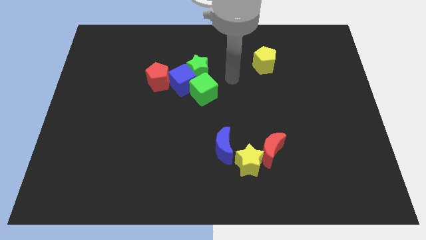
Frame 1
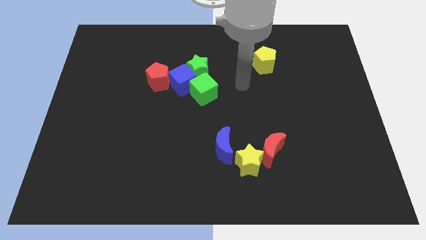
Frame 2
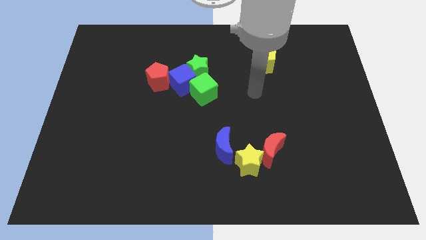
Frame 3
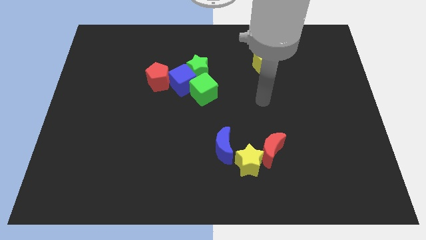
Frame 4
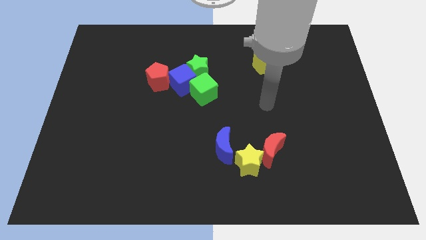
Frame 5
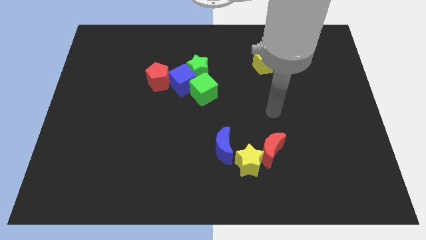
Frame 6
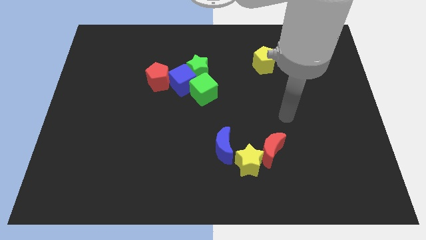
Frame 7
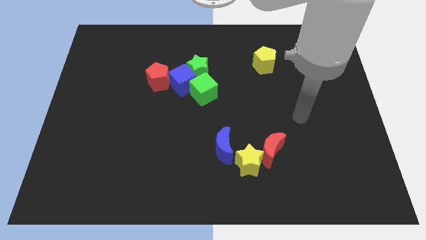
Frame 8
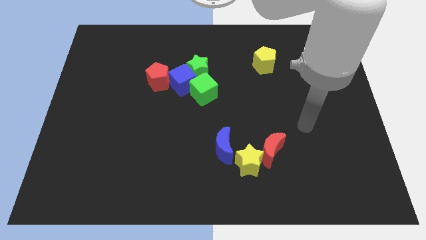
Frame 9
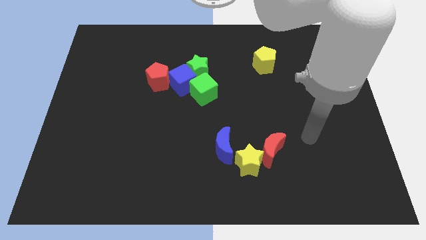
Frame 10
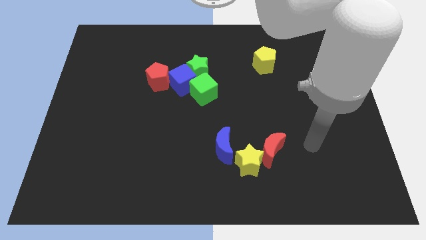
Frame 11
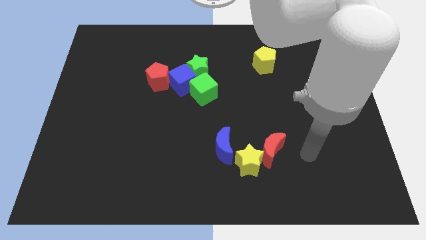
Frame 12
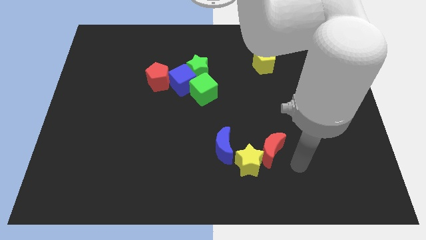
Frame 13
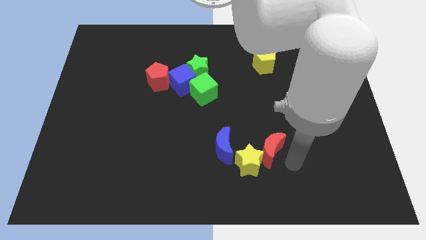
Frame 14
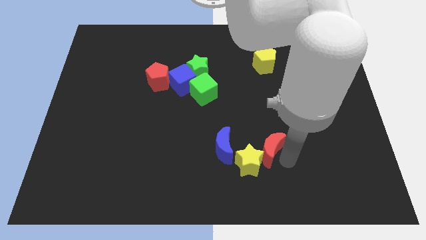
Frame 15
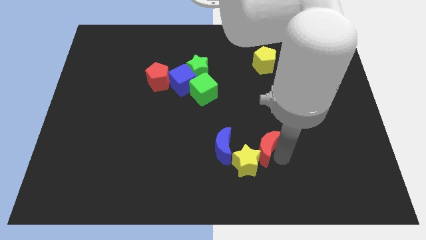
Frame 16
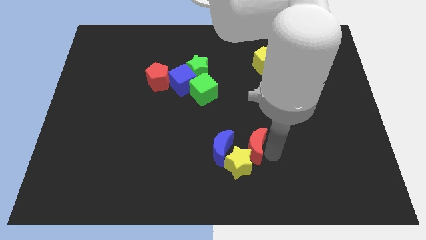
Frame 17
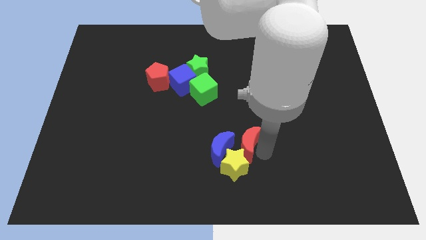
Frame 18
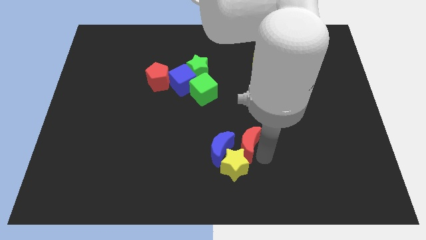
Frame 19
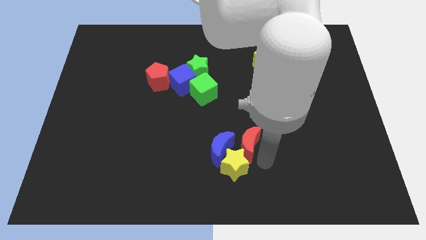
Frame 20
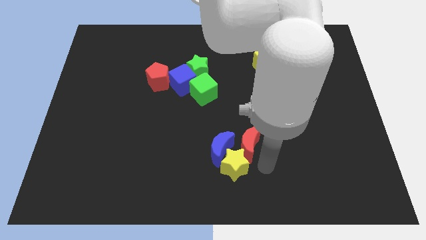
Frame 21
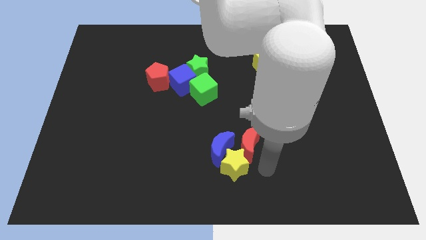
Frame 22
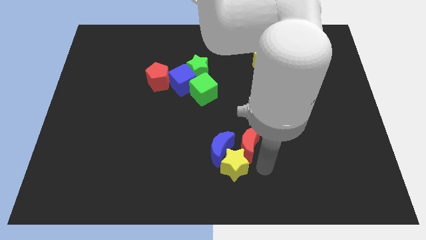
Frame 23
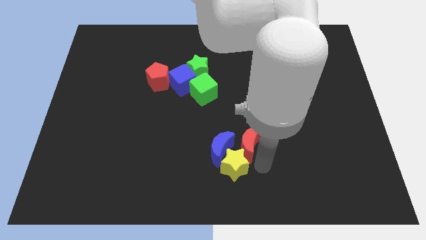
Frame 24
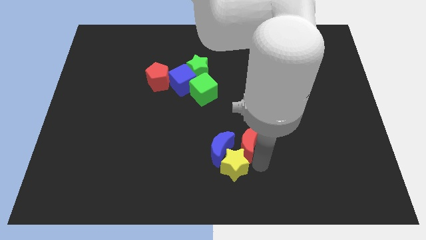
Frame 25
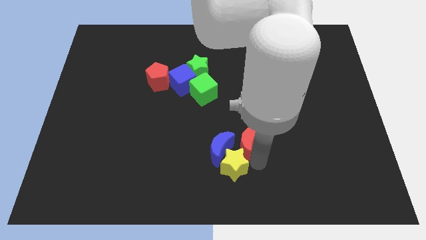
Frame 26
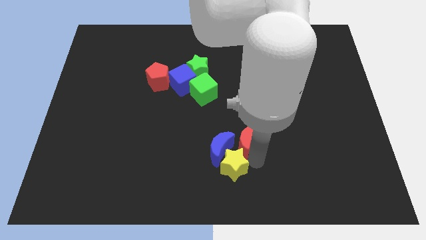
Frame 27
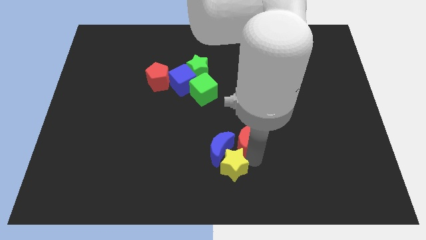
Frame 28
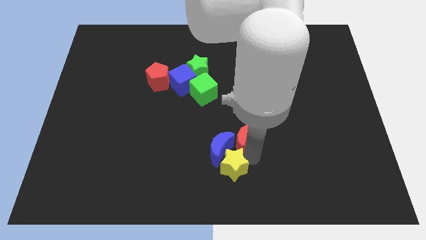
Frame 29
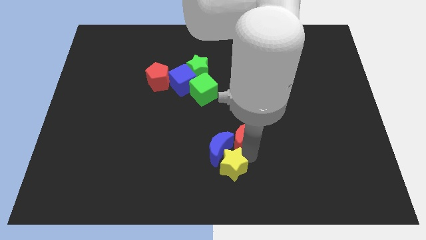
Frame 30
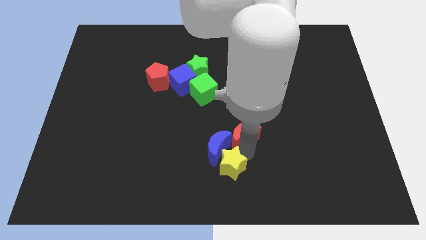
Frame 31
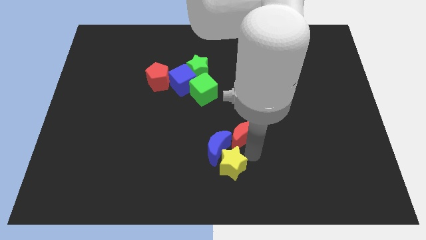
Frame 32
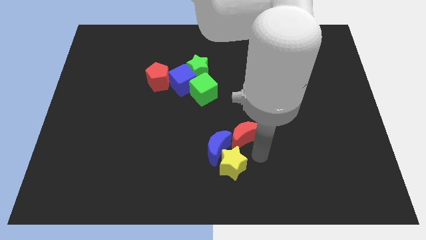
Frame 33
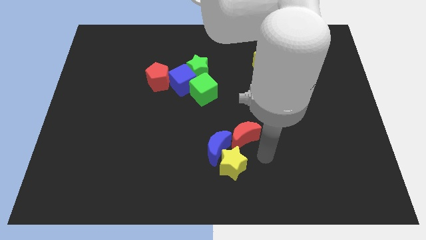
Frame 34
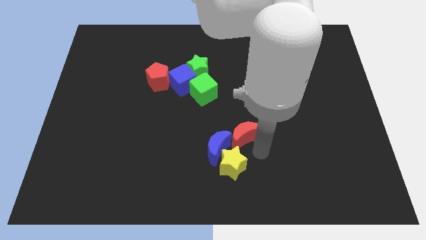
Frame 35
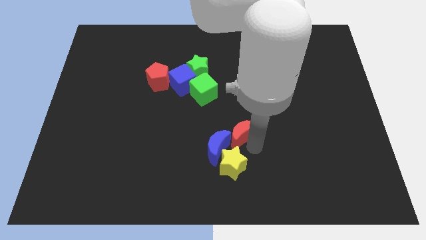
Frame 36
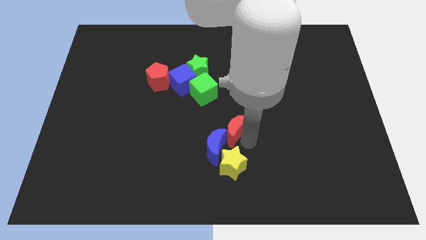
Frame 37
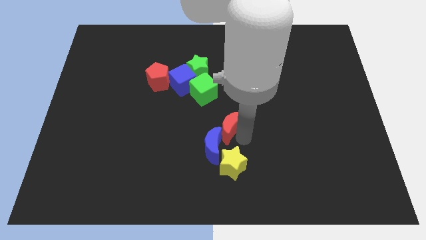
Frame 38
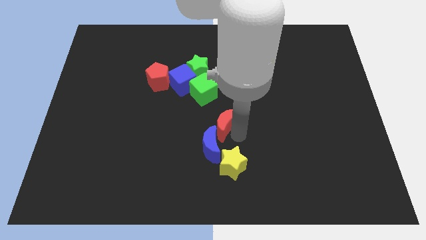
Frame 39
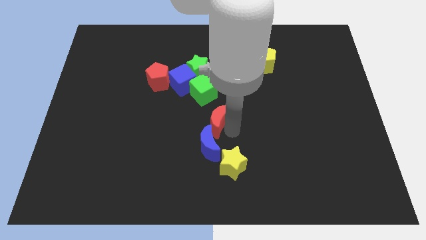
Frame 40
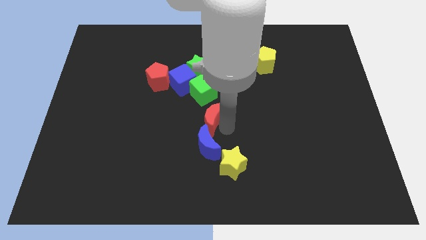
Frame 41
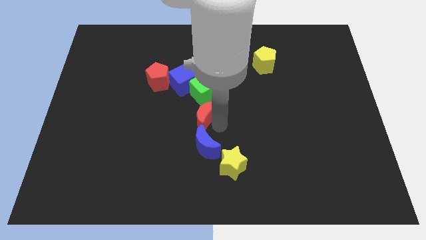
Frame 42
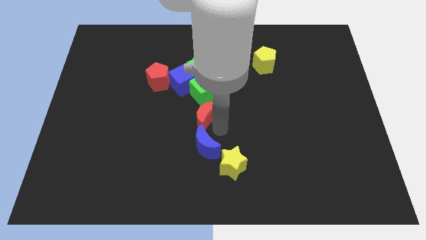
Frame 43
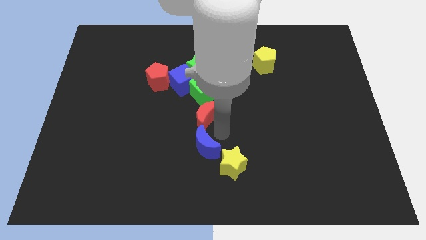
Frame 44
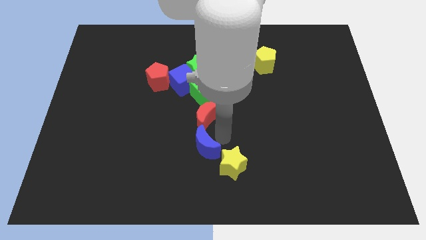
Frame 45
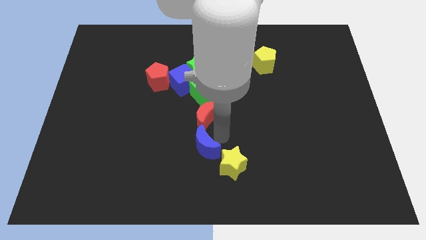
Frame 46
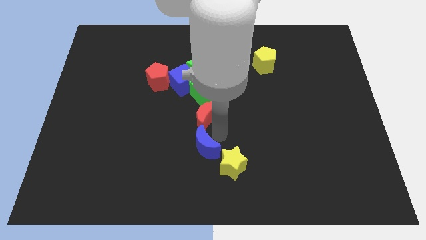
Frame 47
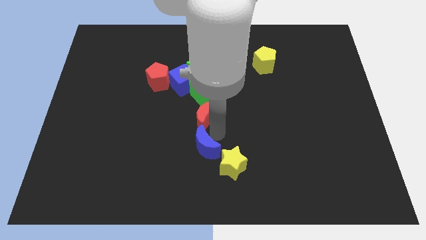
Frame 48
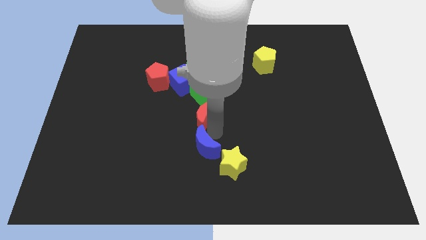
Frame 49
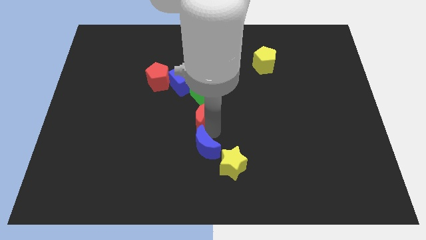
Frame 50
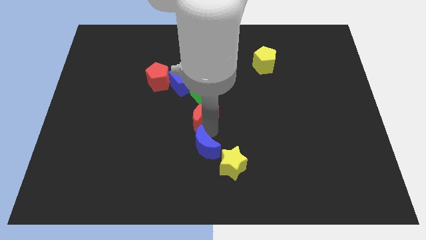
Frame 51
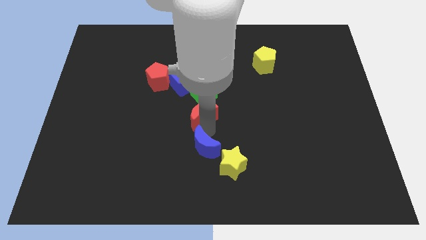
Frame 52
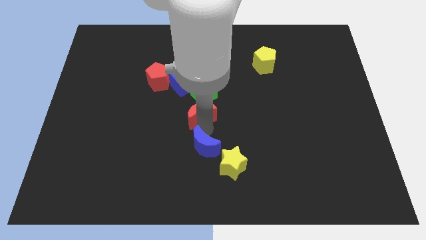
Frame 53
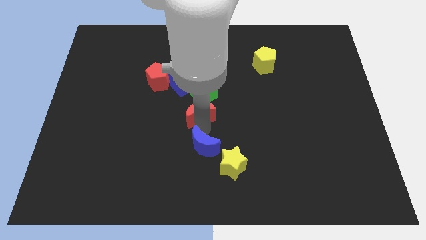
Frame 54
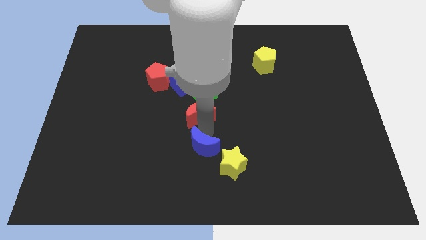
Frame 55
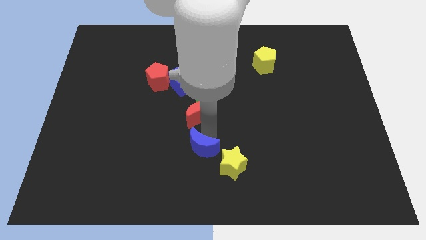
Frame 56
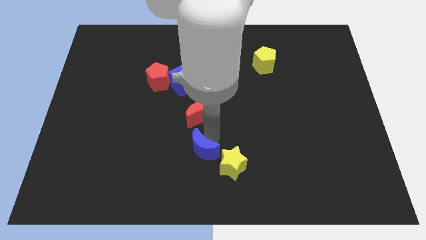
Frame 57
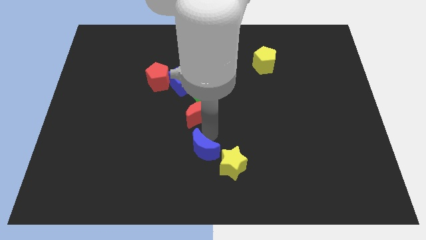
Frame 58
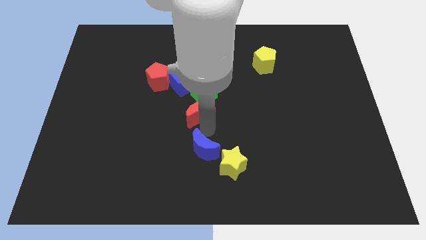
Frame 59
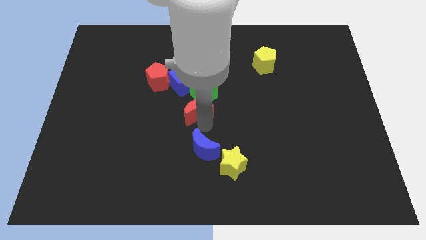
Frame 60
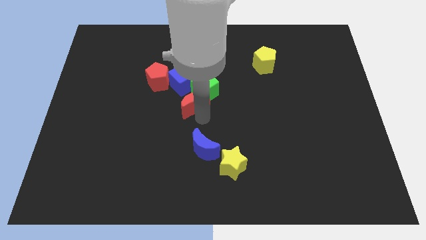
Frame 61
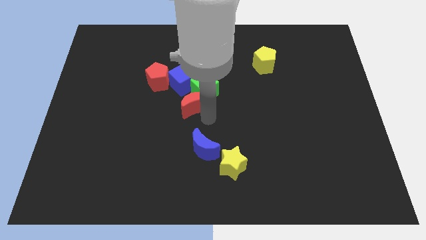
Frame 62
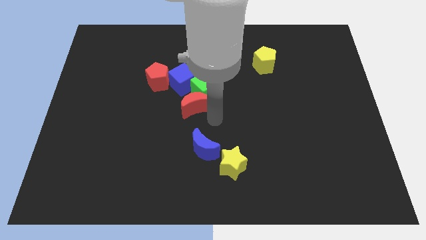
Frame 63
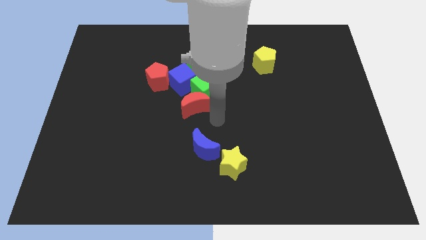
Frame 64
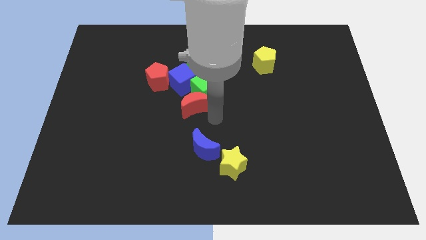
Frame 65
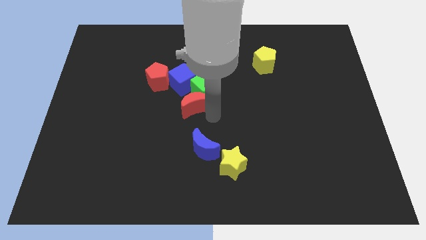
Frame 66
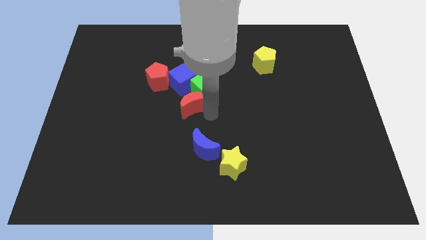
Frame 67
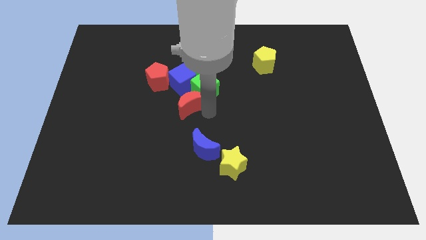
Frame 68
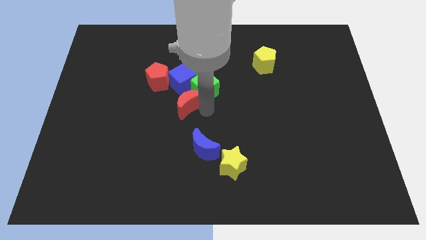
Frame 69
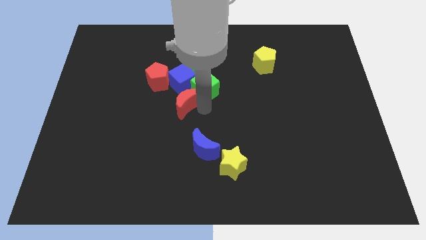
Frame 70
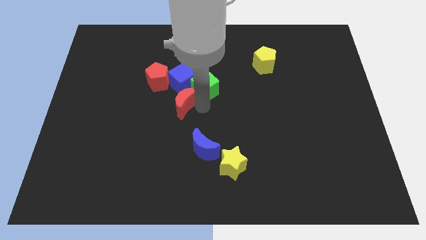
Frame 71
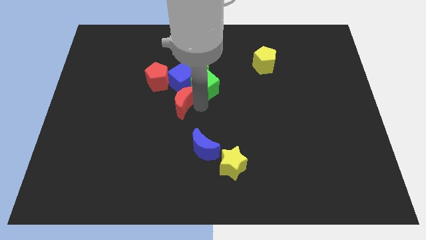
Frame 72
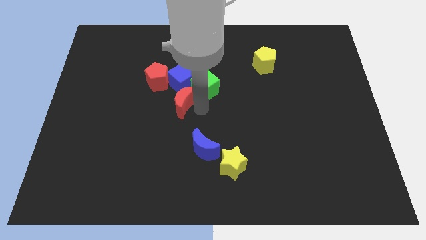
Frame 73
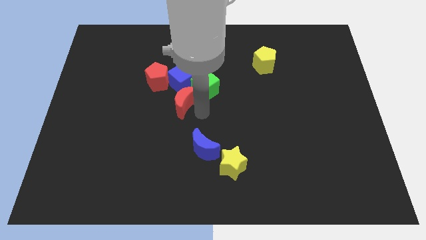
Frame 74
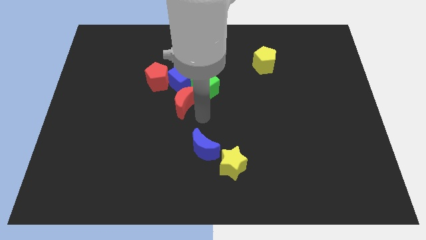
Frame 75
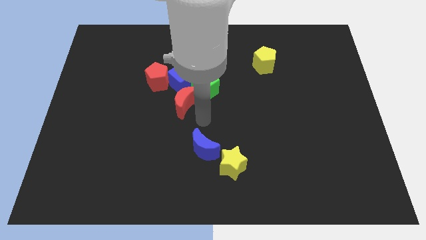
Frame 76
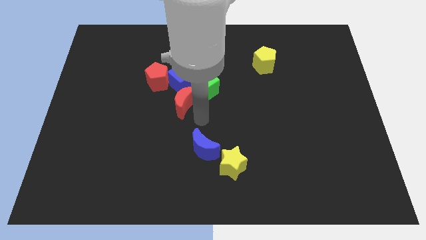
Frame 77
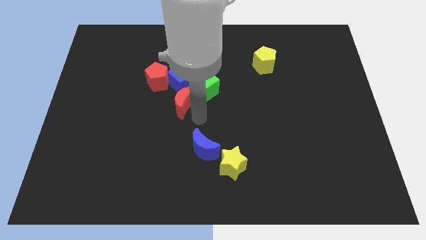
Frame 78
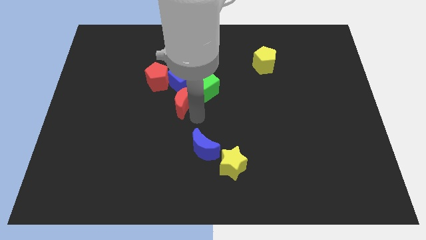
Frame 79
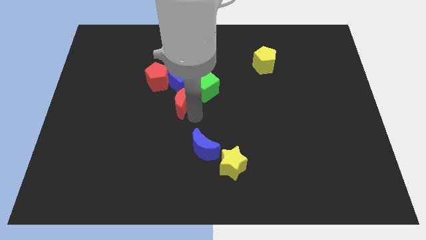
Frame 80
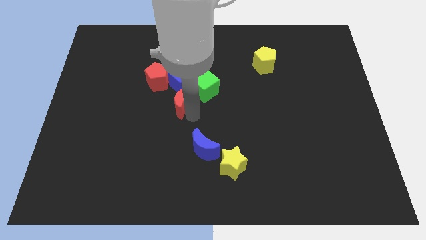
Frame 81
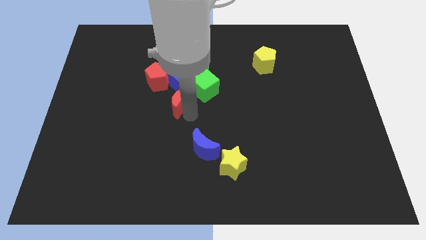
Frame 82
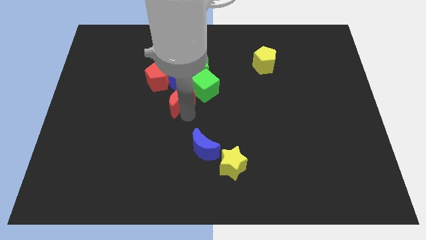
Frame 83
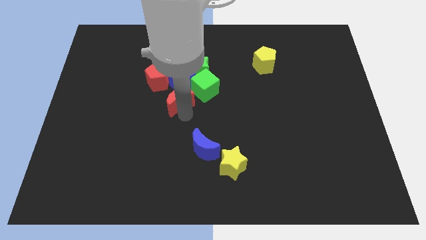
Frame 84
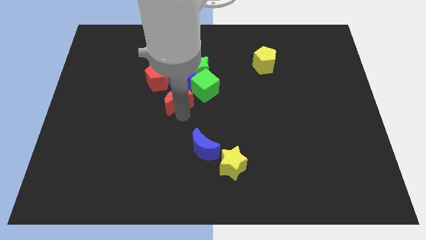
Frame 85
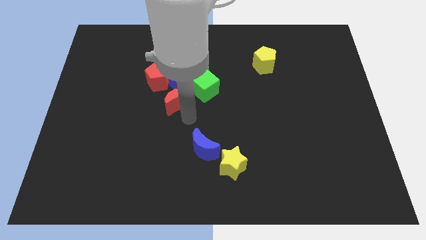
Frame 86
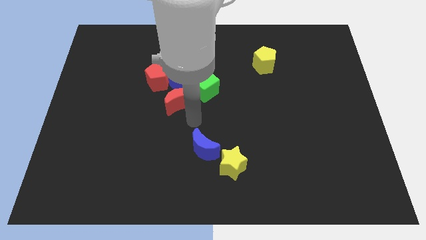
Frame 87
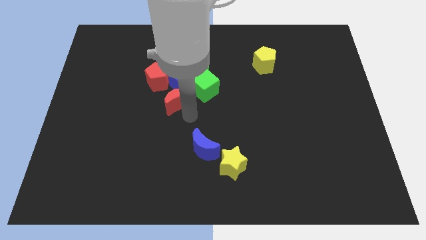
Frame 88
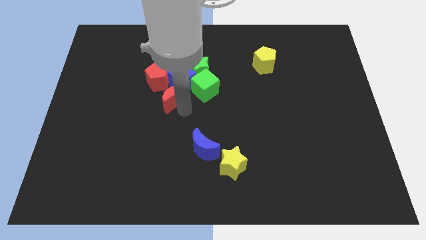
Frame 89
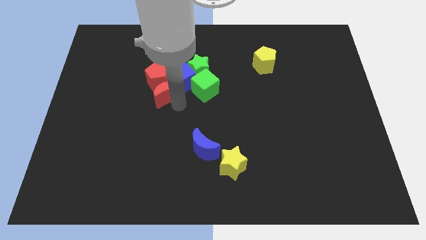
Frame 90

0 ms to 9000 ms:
put the red moon to the red pentagon
